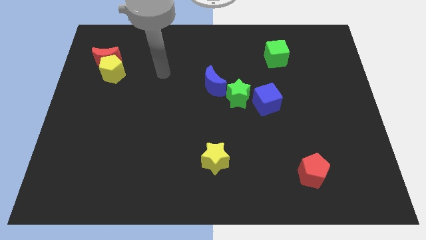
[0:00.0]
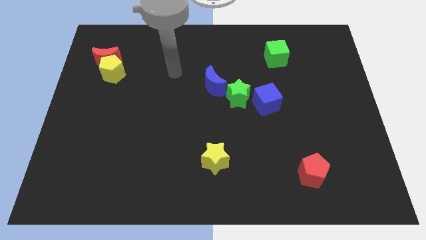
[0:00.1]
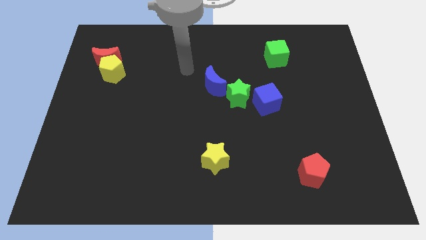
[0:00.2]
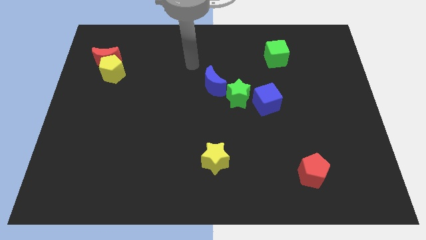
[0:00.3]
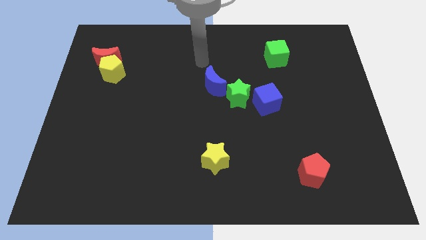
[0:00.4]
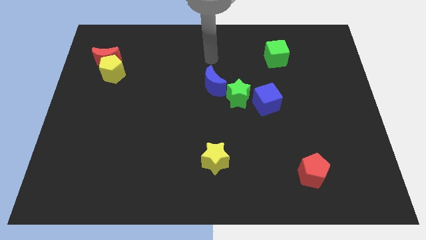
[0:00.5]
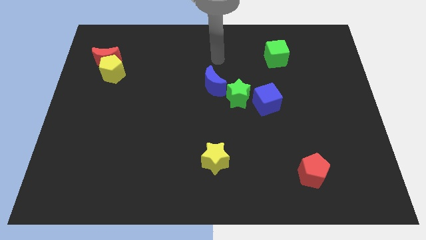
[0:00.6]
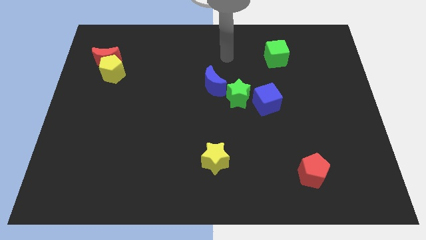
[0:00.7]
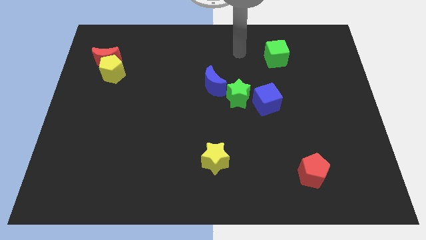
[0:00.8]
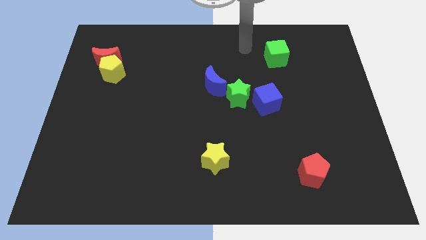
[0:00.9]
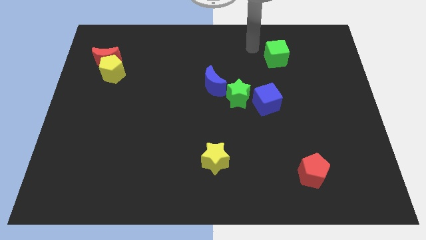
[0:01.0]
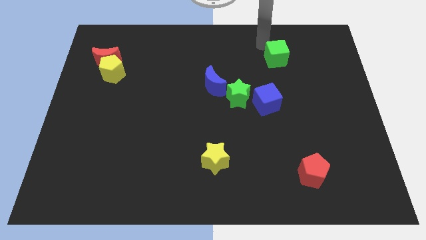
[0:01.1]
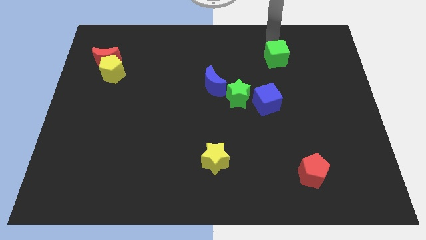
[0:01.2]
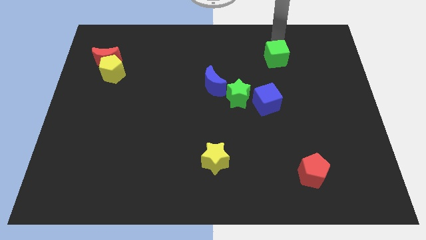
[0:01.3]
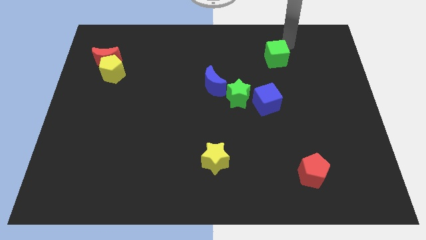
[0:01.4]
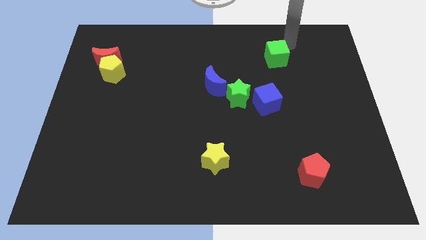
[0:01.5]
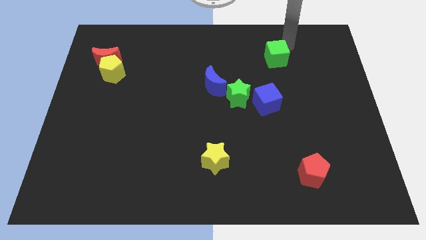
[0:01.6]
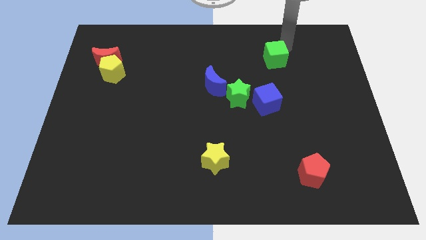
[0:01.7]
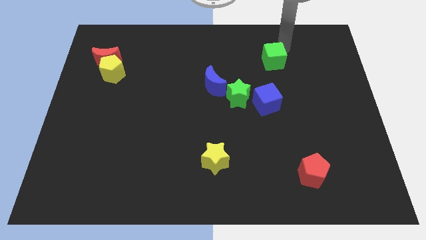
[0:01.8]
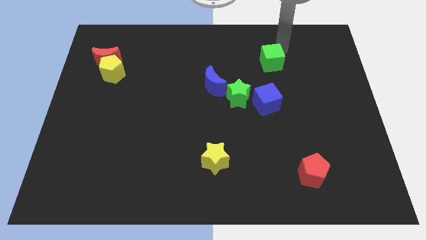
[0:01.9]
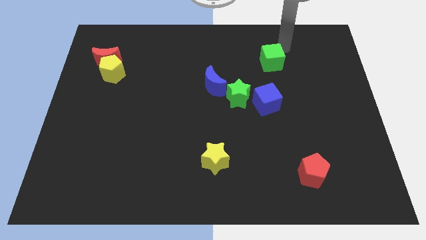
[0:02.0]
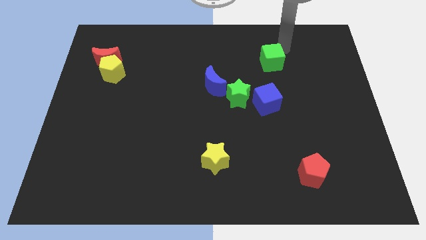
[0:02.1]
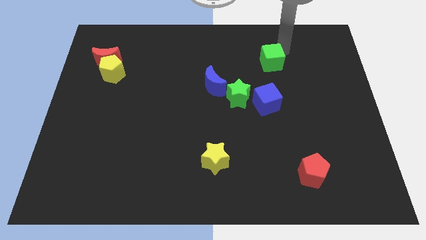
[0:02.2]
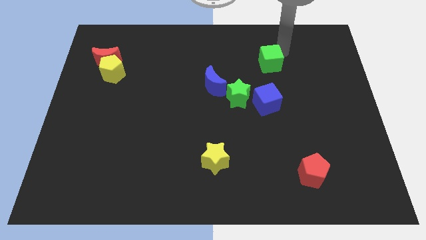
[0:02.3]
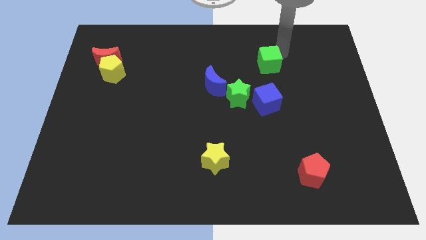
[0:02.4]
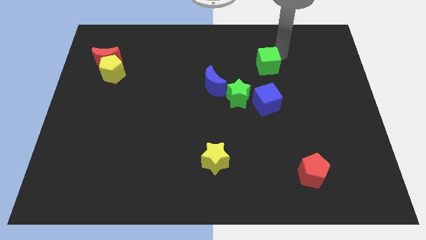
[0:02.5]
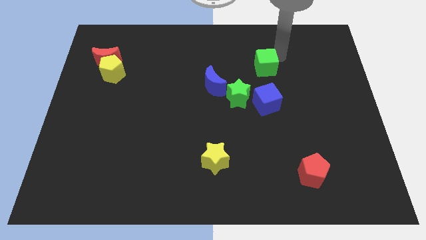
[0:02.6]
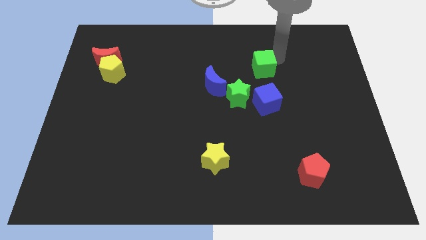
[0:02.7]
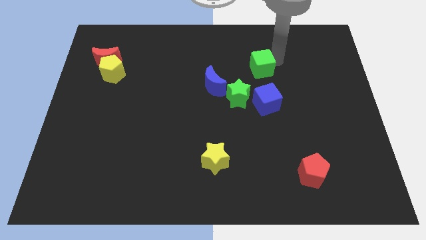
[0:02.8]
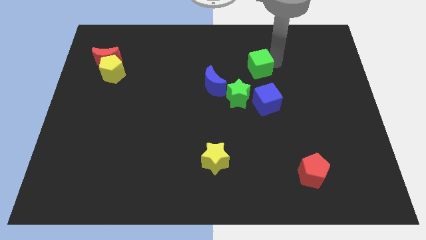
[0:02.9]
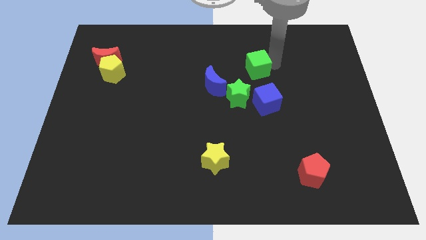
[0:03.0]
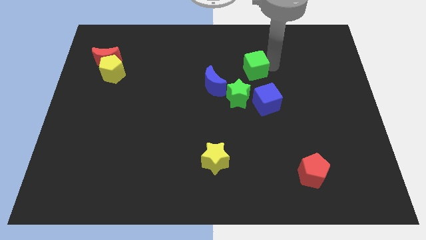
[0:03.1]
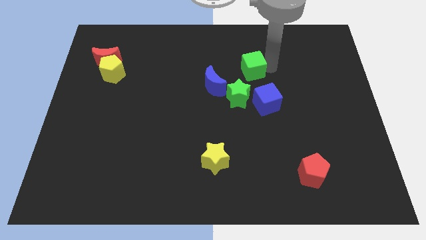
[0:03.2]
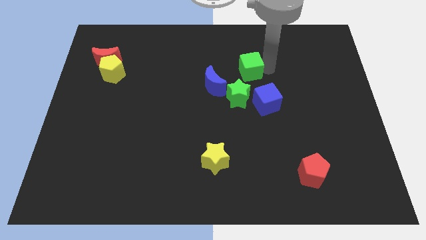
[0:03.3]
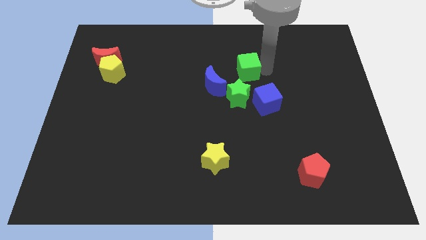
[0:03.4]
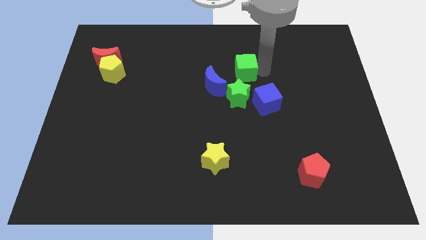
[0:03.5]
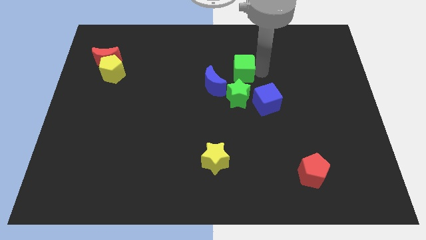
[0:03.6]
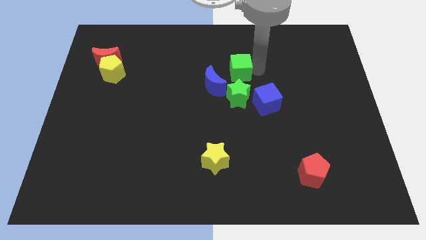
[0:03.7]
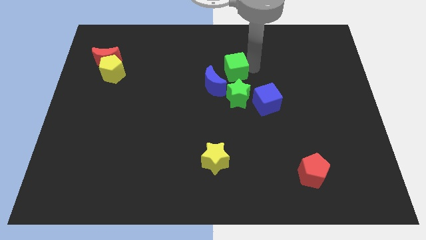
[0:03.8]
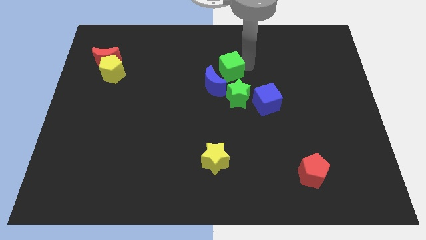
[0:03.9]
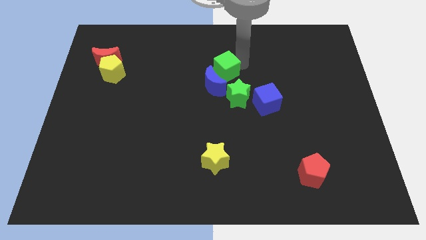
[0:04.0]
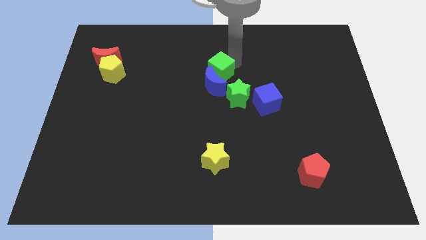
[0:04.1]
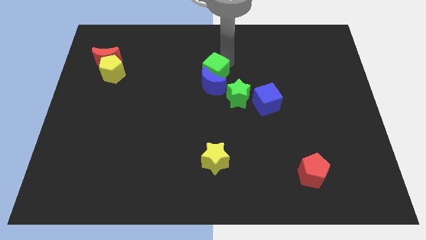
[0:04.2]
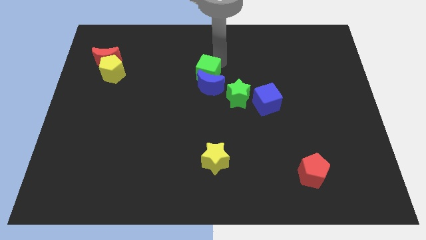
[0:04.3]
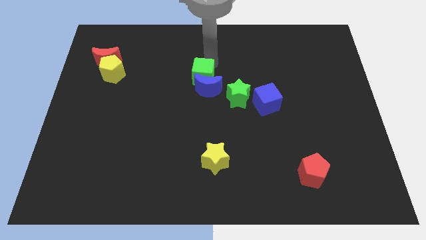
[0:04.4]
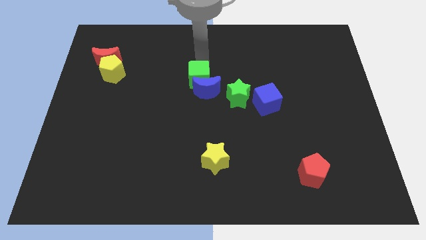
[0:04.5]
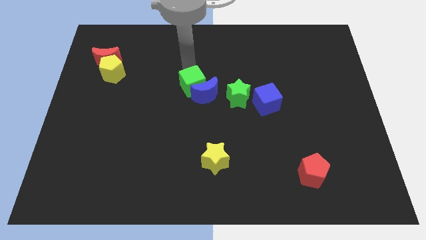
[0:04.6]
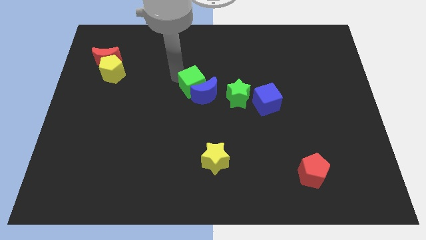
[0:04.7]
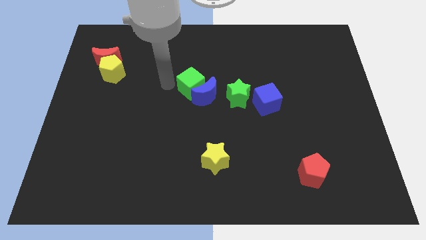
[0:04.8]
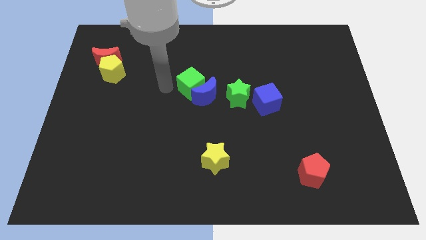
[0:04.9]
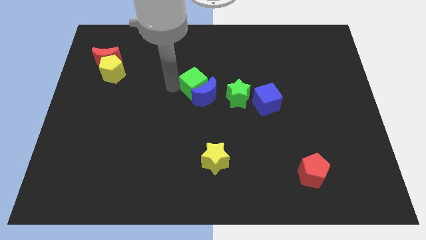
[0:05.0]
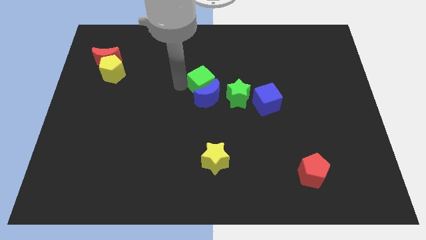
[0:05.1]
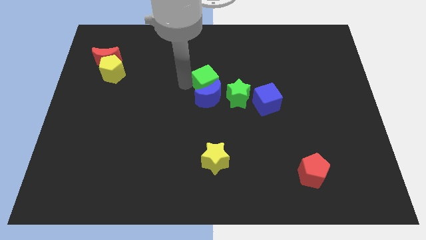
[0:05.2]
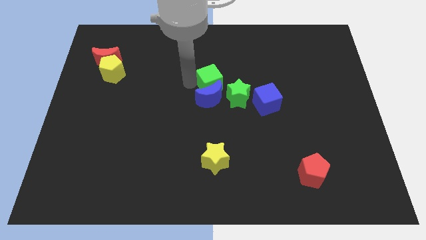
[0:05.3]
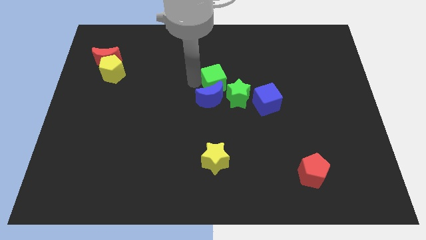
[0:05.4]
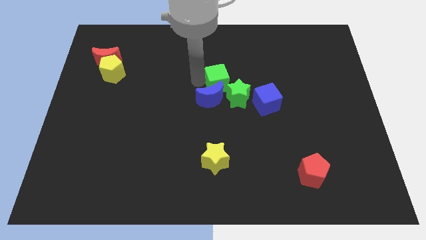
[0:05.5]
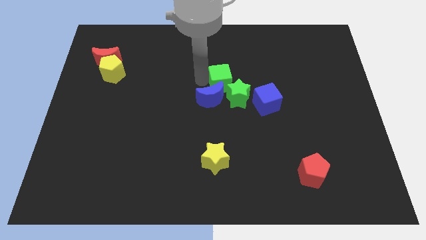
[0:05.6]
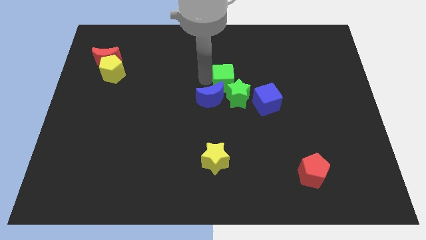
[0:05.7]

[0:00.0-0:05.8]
put the green cube close to the green star

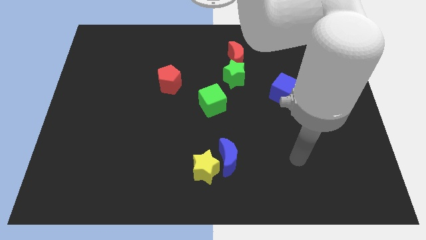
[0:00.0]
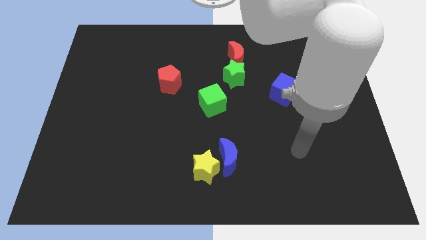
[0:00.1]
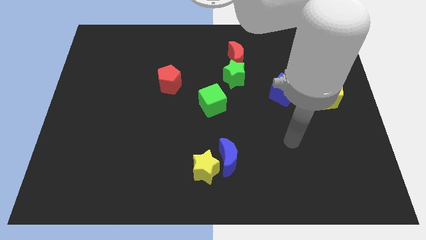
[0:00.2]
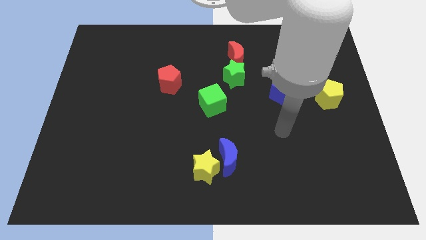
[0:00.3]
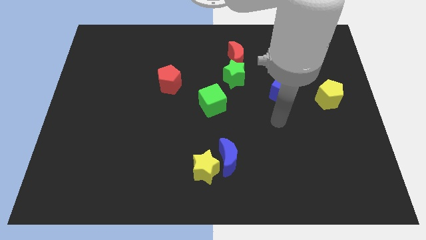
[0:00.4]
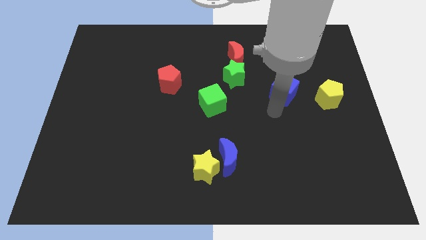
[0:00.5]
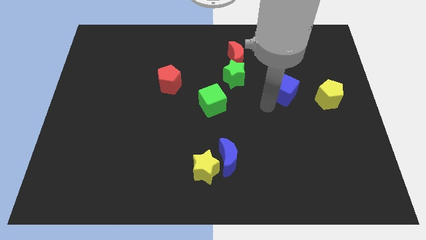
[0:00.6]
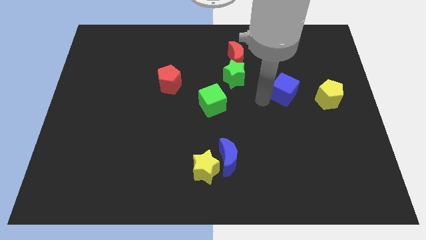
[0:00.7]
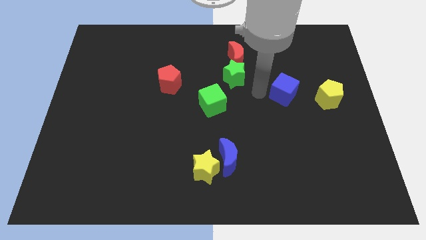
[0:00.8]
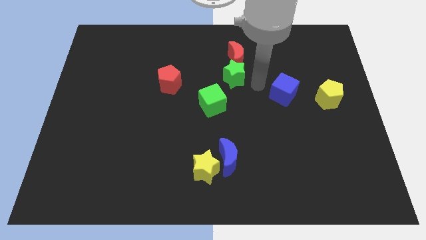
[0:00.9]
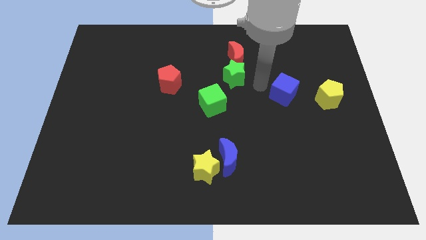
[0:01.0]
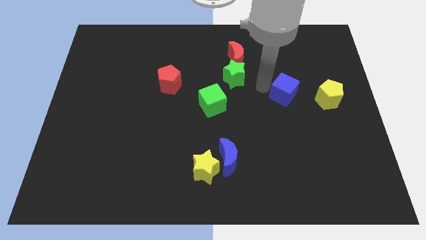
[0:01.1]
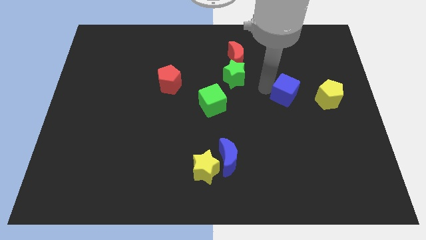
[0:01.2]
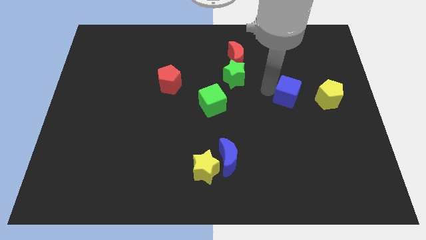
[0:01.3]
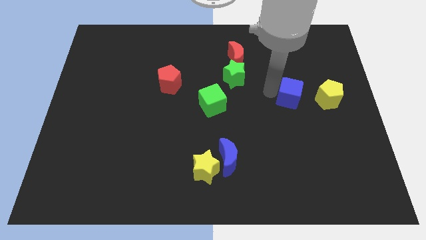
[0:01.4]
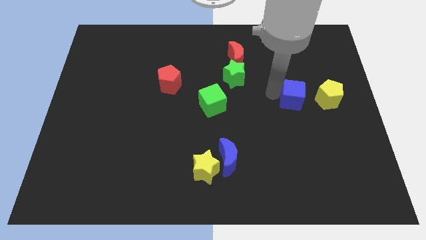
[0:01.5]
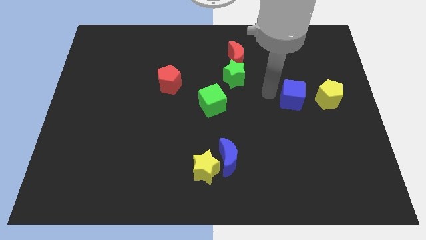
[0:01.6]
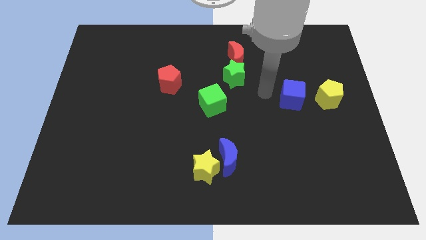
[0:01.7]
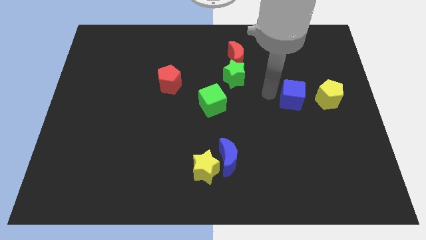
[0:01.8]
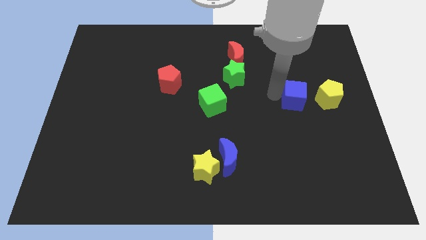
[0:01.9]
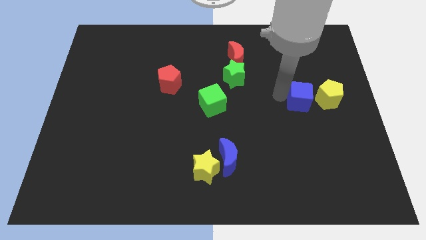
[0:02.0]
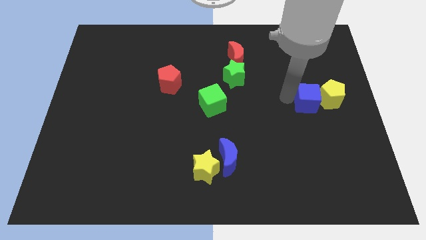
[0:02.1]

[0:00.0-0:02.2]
slide the blue cube towards the yellow pentagon
